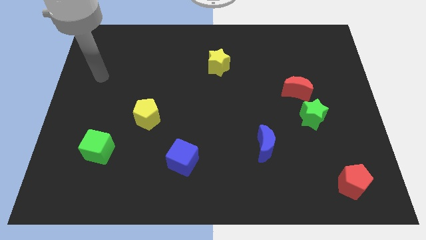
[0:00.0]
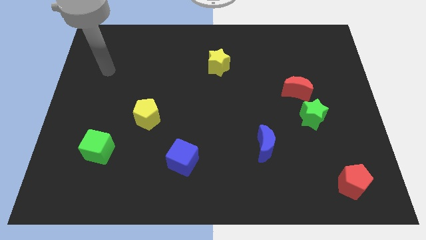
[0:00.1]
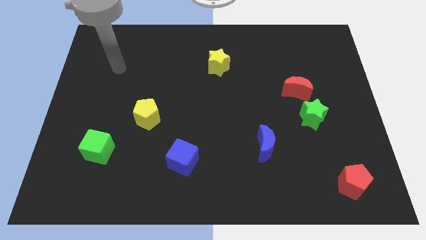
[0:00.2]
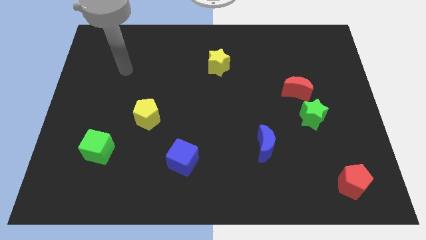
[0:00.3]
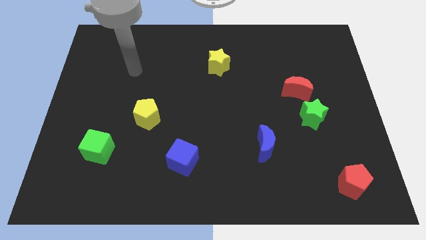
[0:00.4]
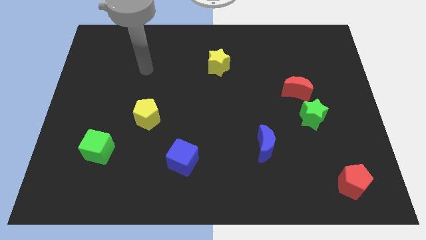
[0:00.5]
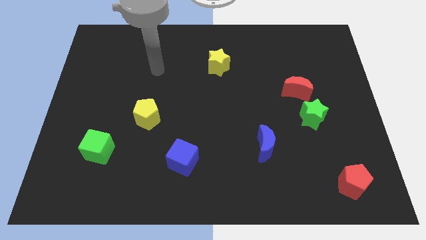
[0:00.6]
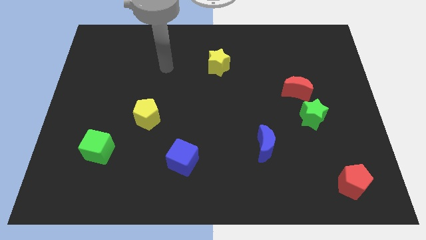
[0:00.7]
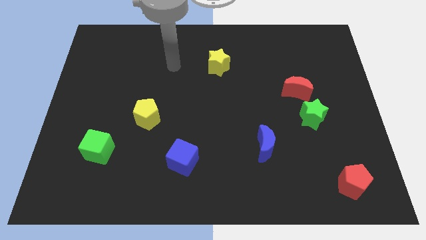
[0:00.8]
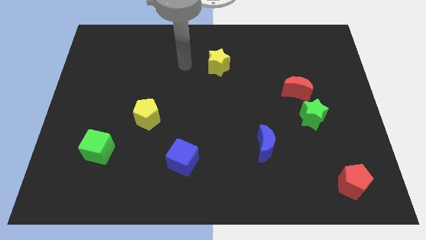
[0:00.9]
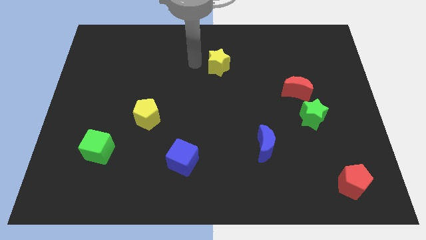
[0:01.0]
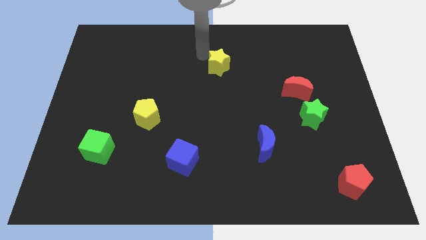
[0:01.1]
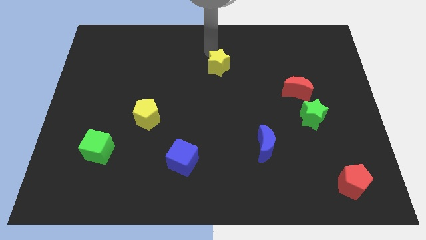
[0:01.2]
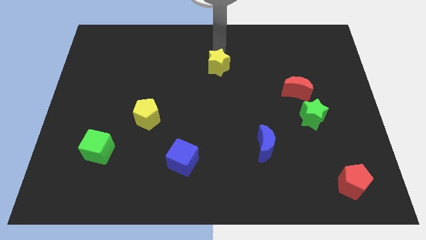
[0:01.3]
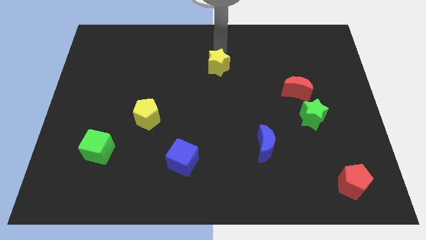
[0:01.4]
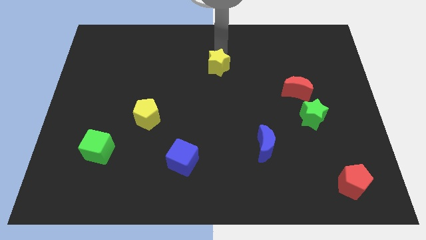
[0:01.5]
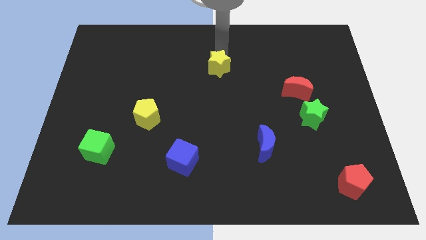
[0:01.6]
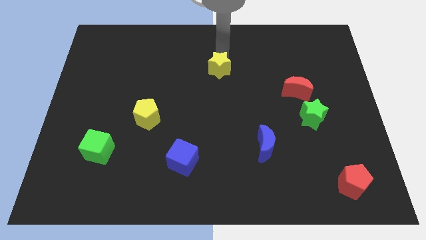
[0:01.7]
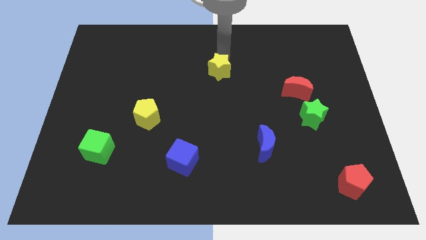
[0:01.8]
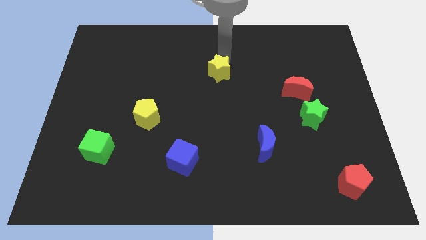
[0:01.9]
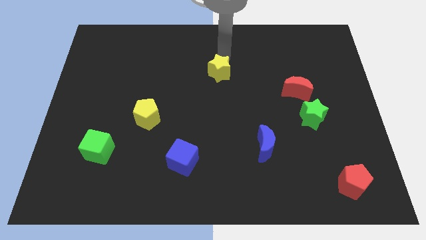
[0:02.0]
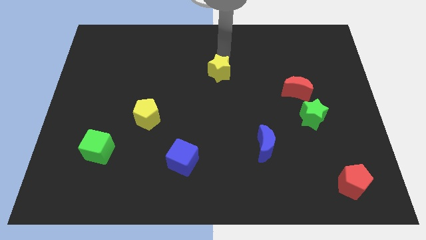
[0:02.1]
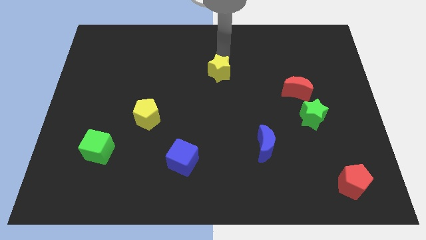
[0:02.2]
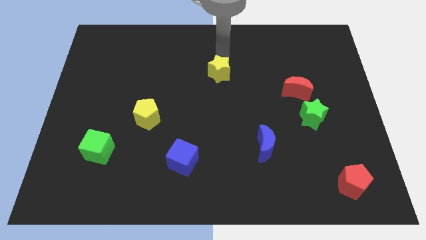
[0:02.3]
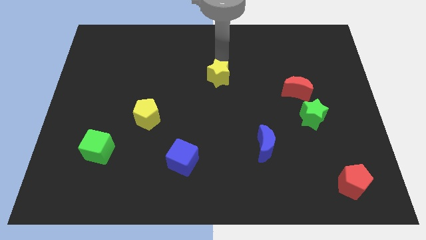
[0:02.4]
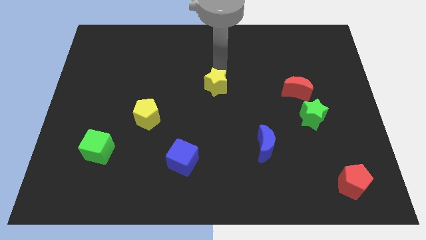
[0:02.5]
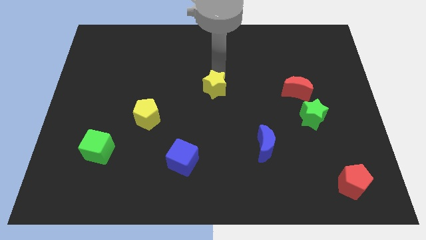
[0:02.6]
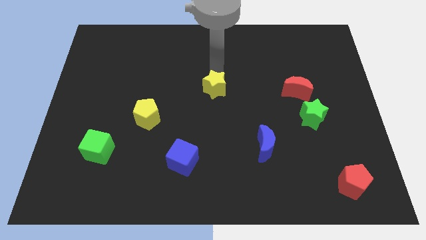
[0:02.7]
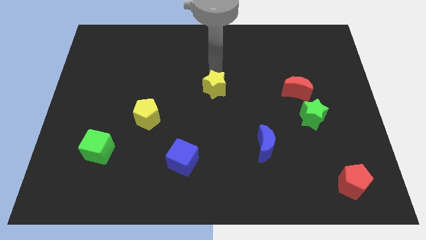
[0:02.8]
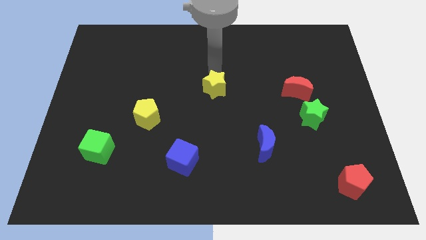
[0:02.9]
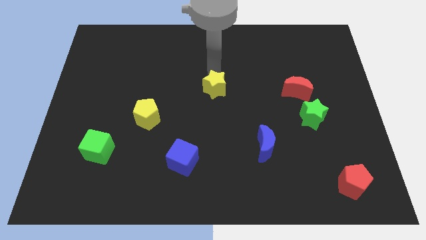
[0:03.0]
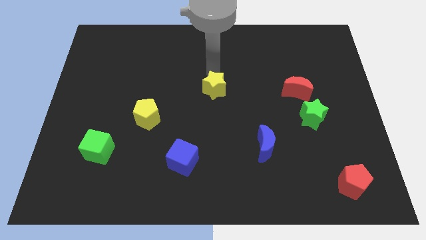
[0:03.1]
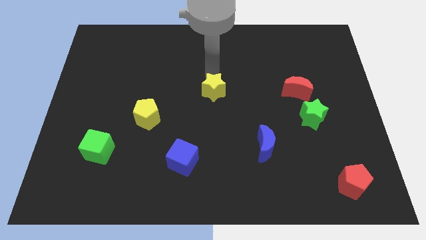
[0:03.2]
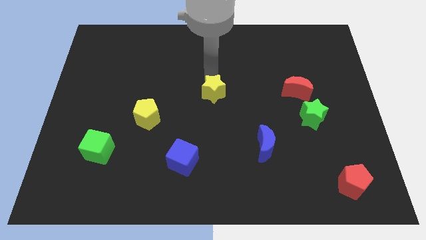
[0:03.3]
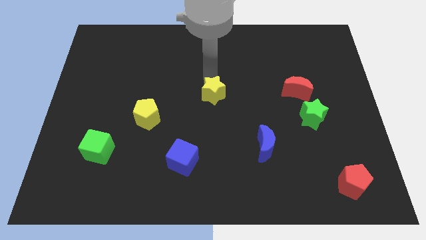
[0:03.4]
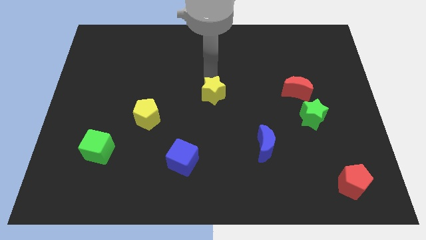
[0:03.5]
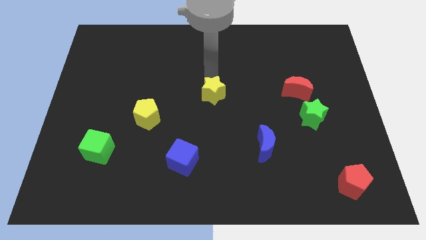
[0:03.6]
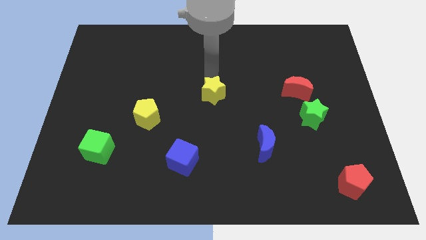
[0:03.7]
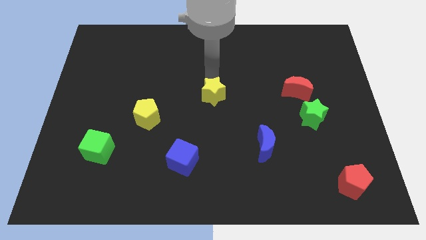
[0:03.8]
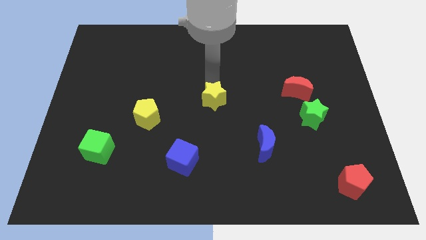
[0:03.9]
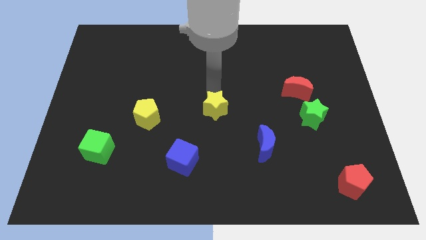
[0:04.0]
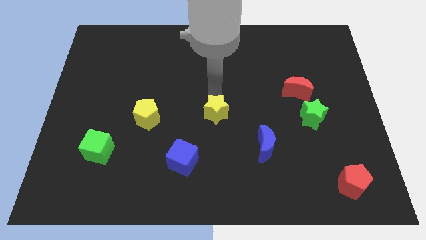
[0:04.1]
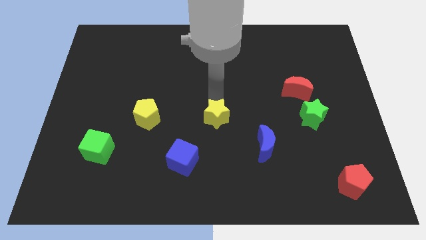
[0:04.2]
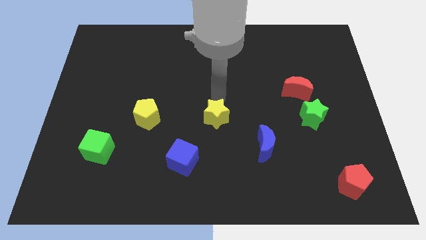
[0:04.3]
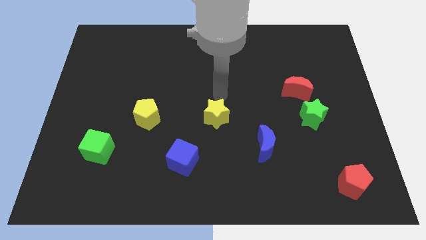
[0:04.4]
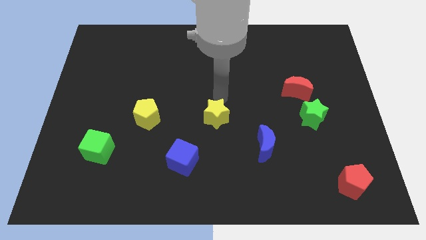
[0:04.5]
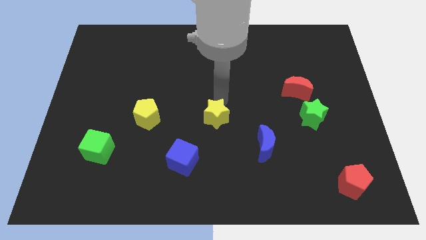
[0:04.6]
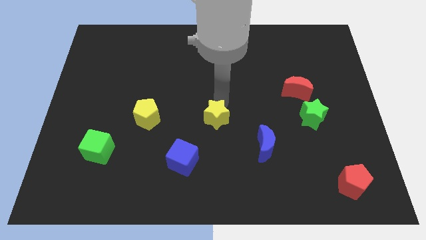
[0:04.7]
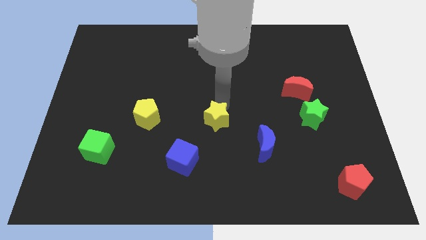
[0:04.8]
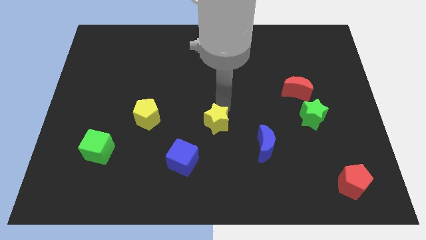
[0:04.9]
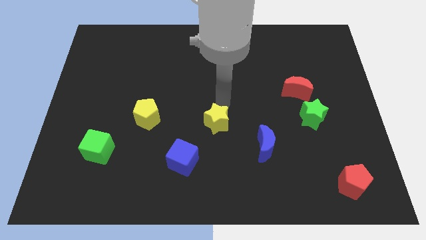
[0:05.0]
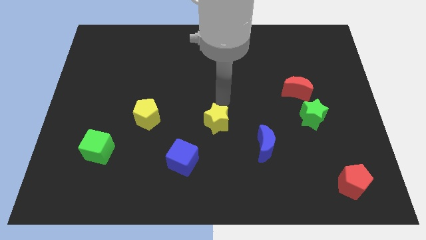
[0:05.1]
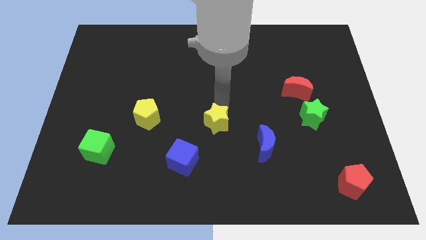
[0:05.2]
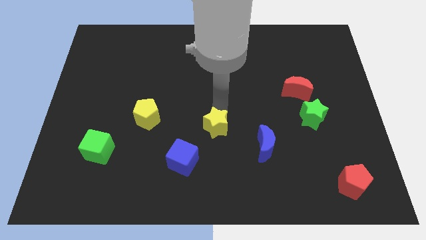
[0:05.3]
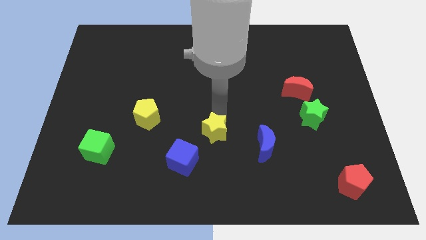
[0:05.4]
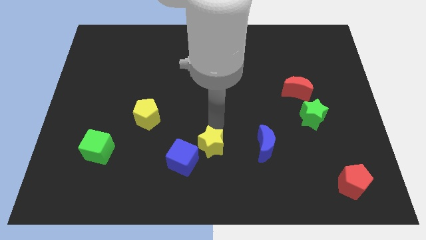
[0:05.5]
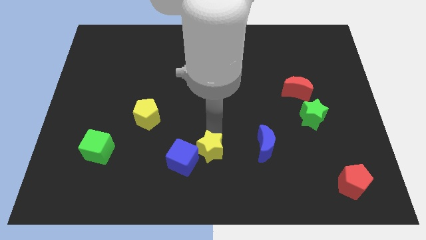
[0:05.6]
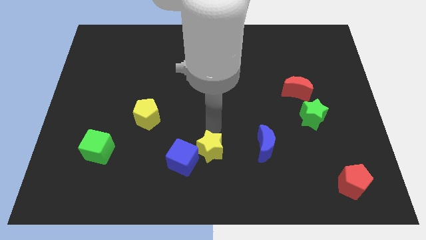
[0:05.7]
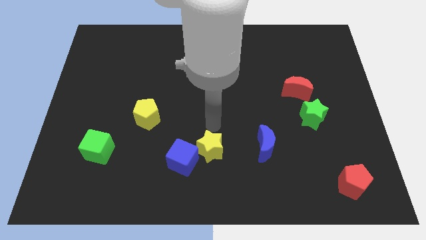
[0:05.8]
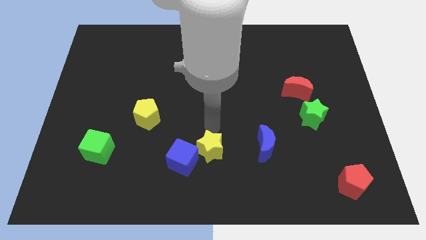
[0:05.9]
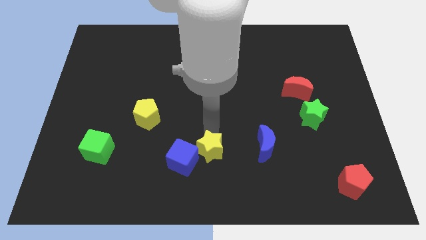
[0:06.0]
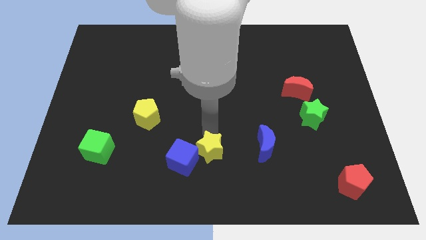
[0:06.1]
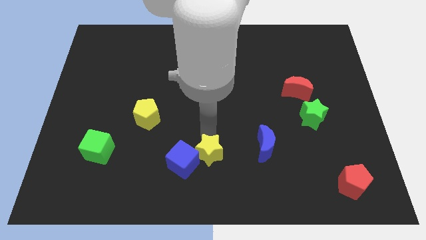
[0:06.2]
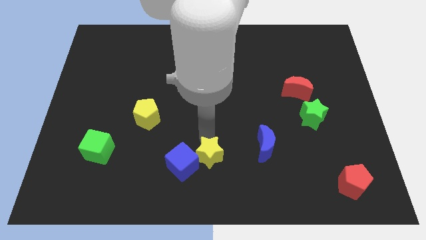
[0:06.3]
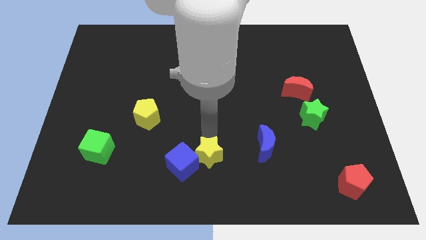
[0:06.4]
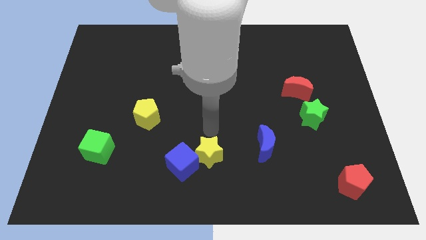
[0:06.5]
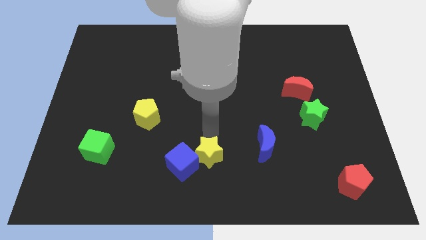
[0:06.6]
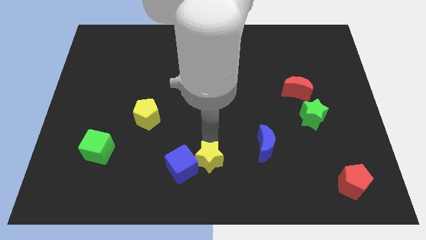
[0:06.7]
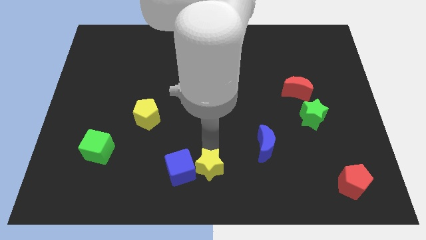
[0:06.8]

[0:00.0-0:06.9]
slide the yellow star to the bottom right of the blue cube

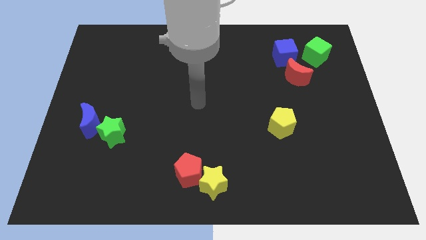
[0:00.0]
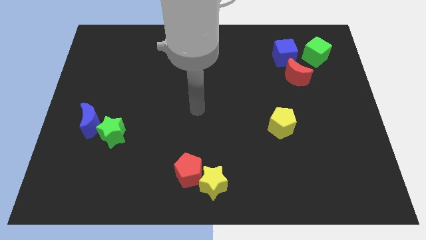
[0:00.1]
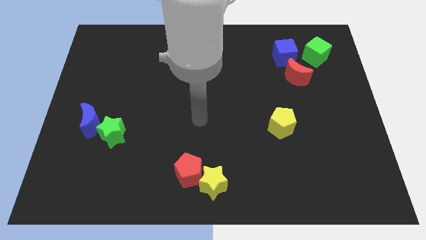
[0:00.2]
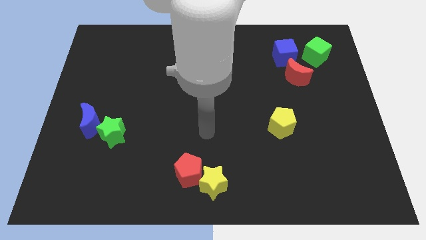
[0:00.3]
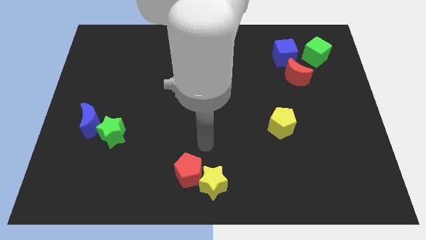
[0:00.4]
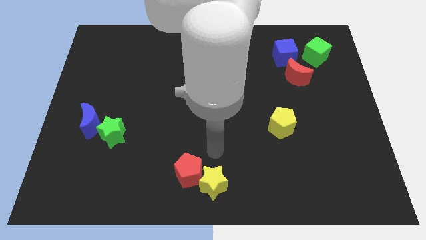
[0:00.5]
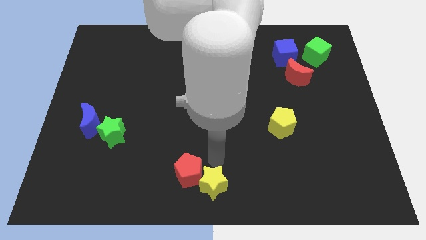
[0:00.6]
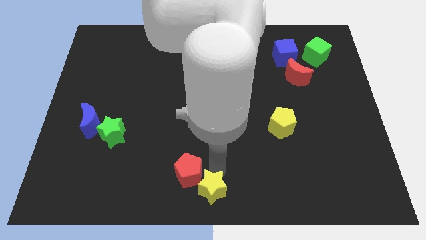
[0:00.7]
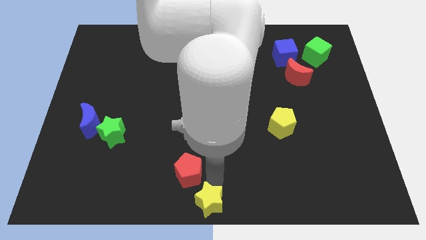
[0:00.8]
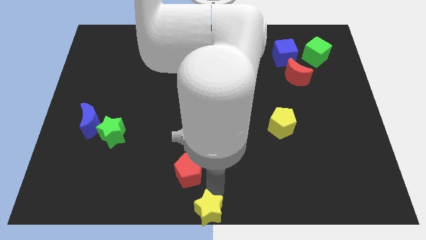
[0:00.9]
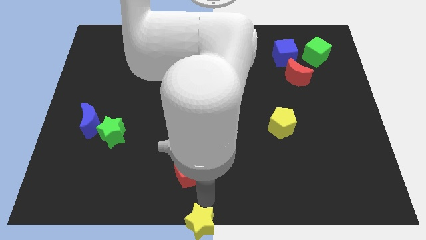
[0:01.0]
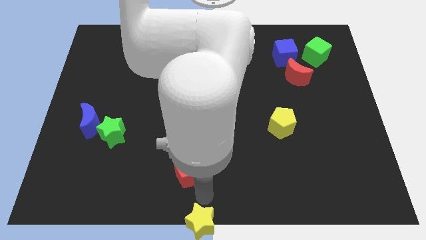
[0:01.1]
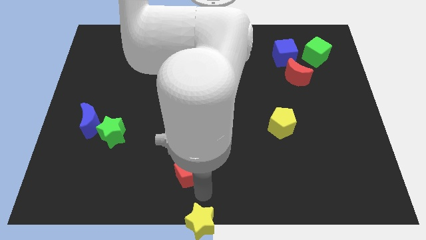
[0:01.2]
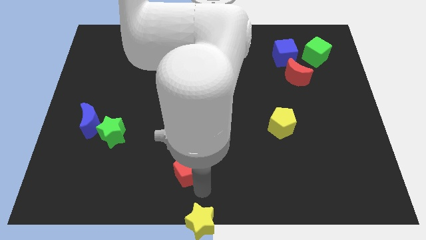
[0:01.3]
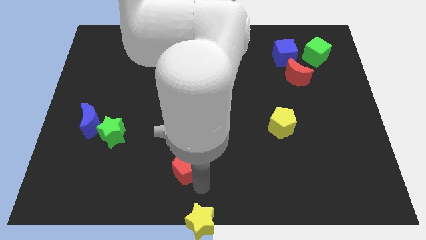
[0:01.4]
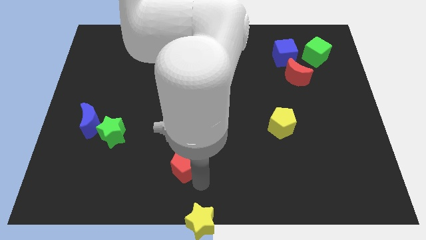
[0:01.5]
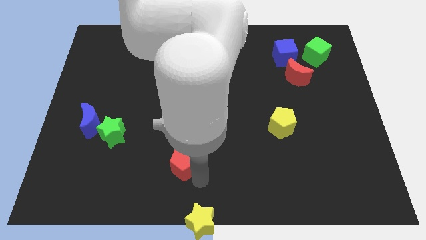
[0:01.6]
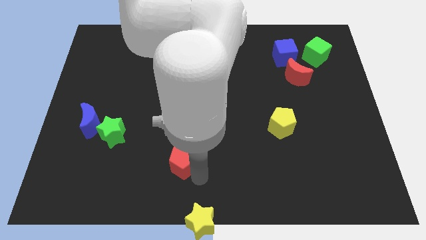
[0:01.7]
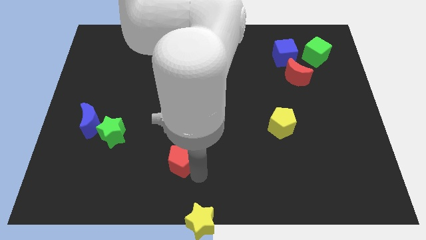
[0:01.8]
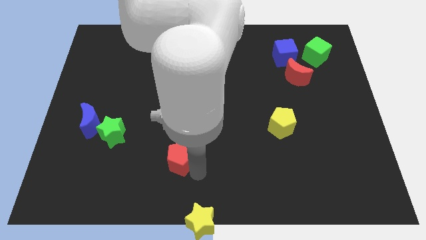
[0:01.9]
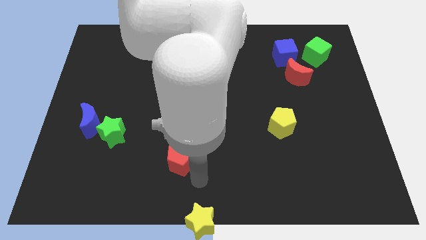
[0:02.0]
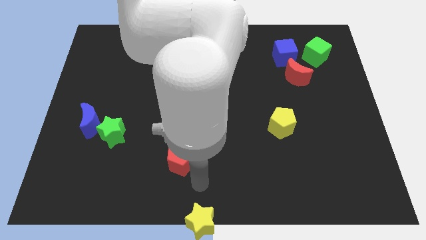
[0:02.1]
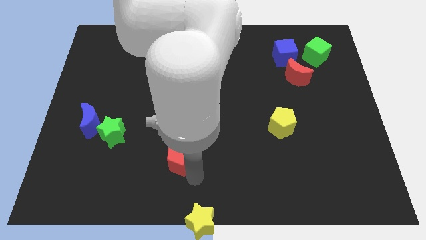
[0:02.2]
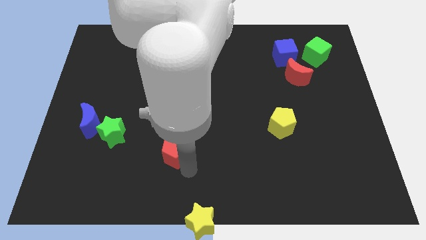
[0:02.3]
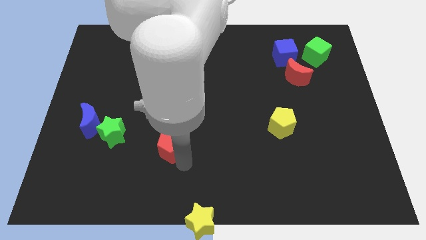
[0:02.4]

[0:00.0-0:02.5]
move the red pentagon to the right side of the green star
